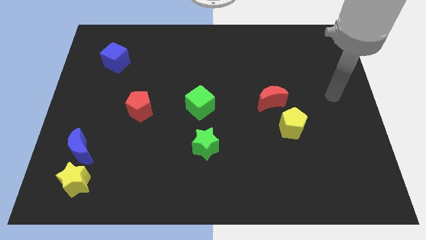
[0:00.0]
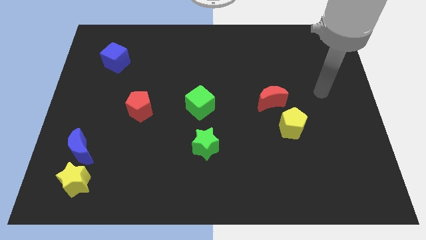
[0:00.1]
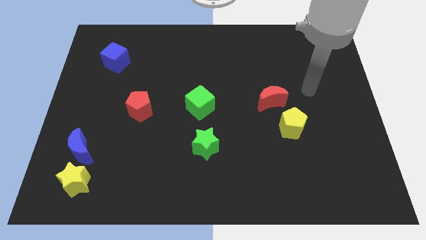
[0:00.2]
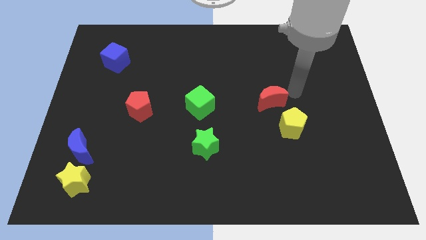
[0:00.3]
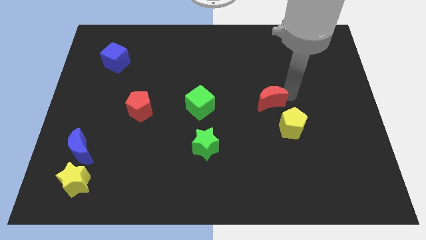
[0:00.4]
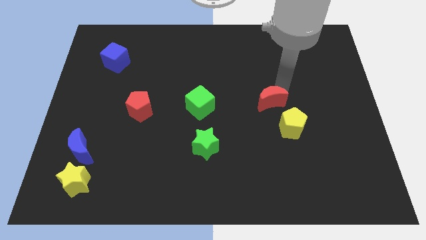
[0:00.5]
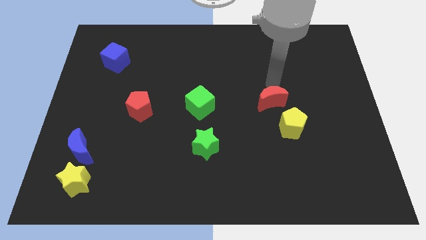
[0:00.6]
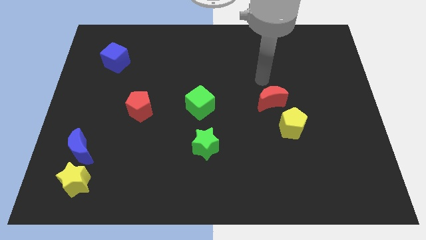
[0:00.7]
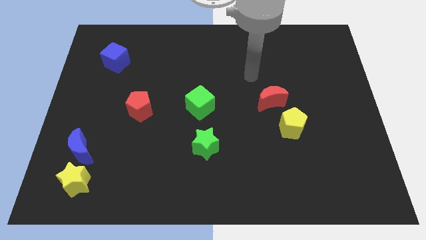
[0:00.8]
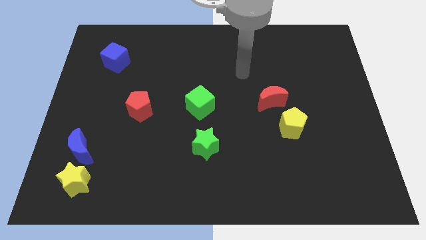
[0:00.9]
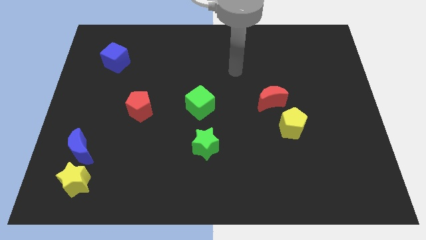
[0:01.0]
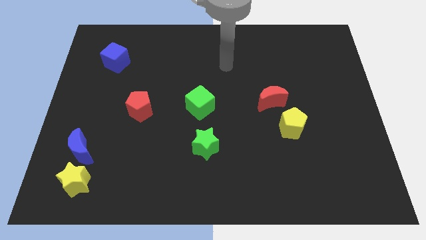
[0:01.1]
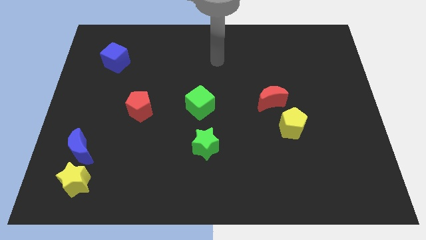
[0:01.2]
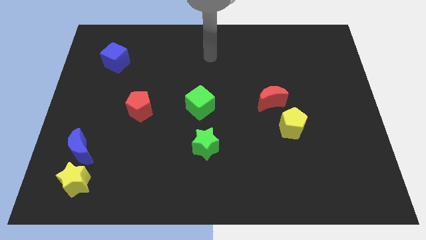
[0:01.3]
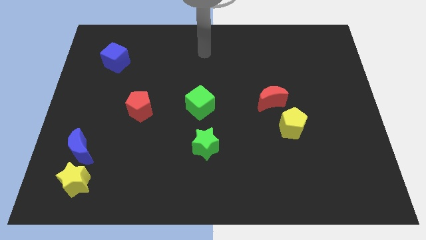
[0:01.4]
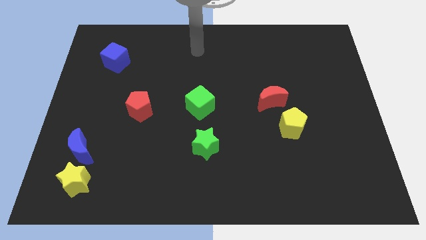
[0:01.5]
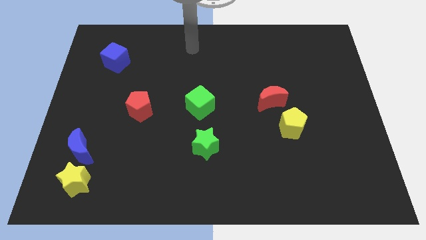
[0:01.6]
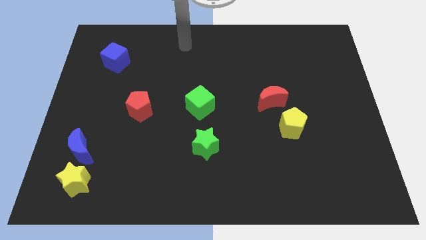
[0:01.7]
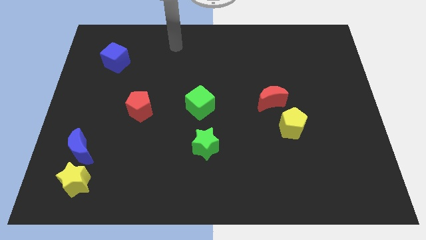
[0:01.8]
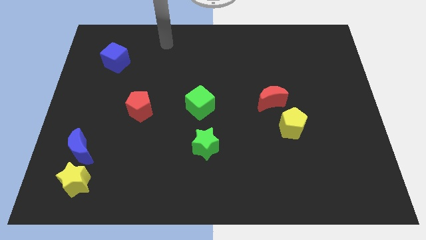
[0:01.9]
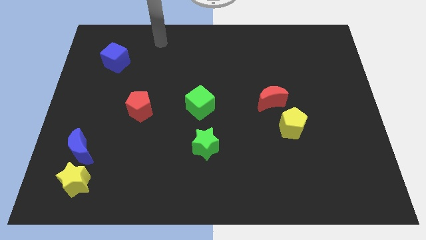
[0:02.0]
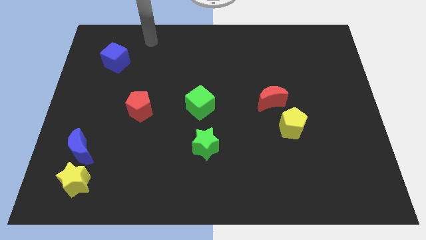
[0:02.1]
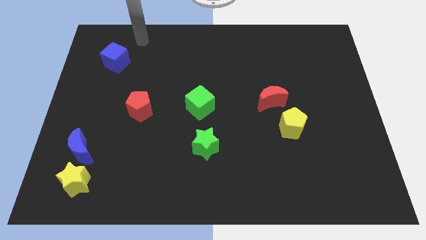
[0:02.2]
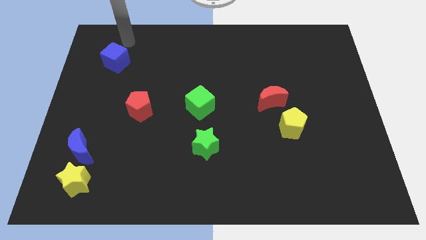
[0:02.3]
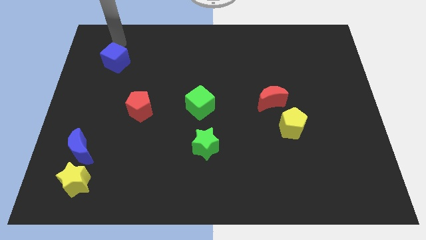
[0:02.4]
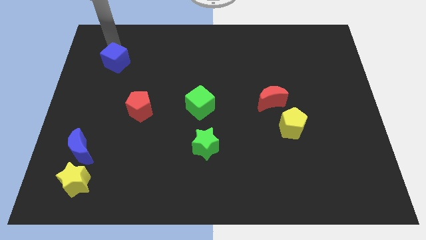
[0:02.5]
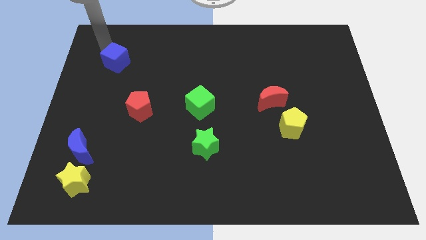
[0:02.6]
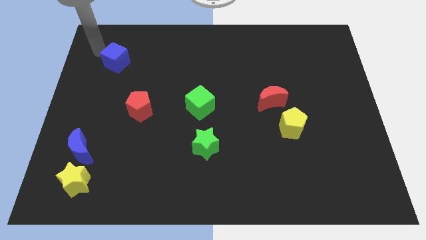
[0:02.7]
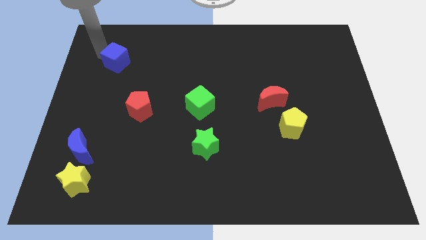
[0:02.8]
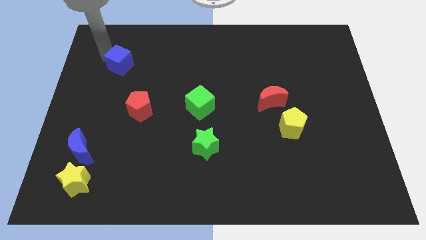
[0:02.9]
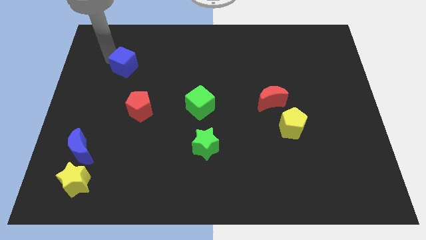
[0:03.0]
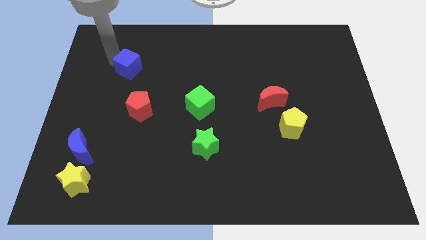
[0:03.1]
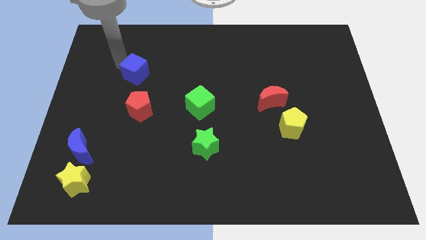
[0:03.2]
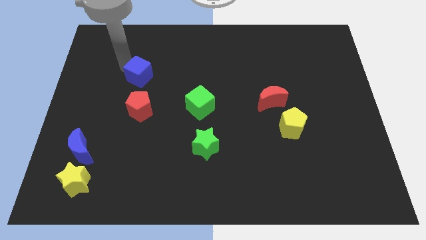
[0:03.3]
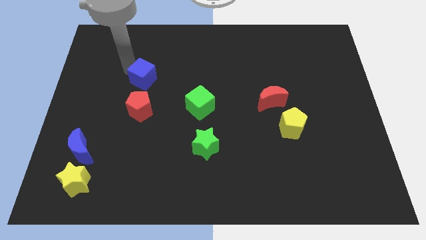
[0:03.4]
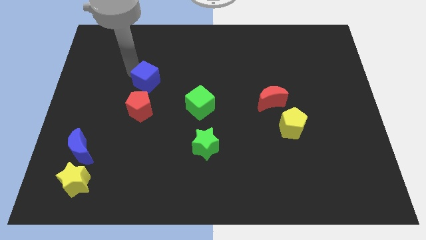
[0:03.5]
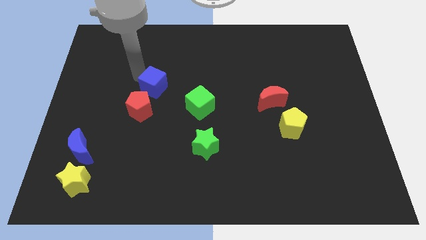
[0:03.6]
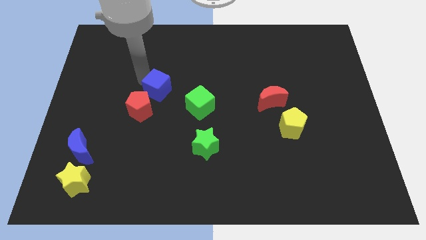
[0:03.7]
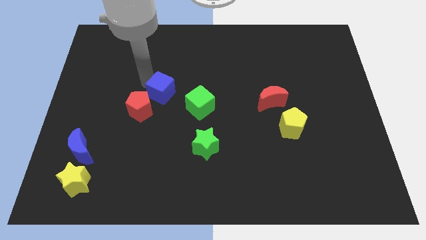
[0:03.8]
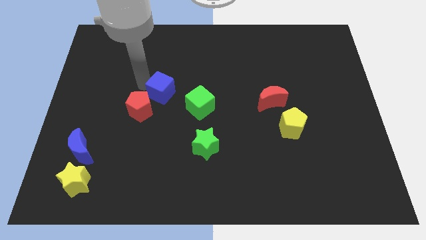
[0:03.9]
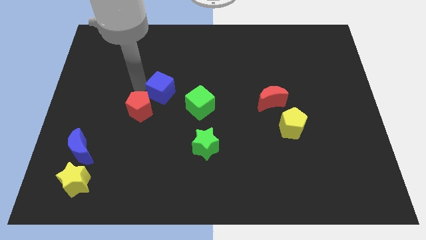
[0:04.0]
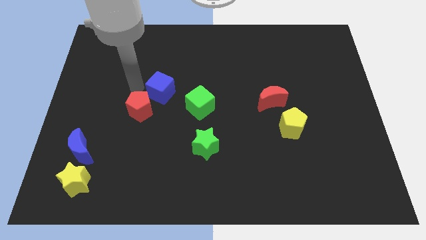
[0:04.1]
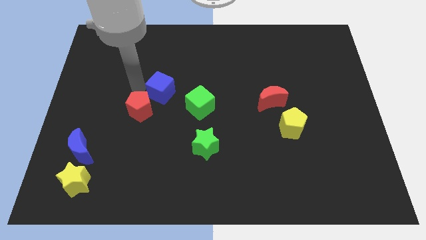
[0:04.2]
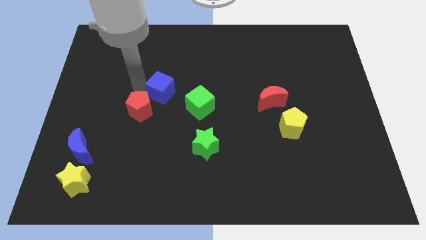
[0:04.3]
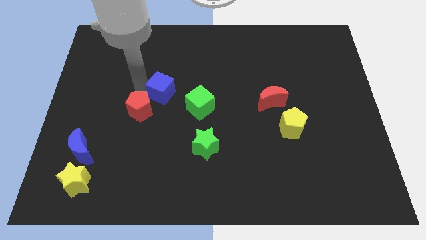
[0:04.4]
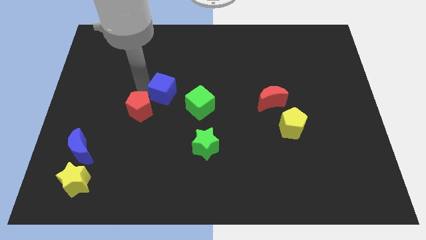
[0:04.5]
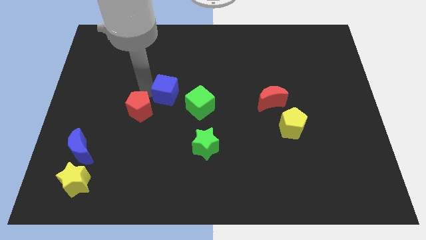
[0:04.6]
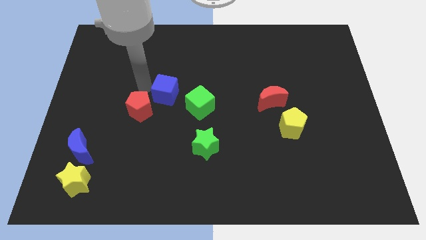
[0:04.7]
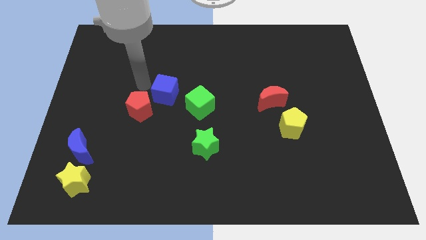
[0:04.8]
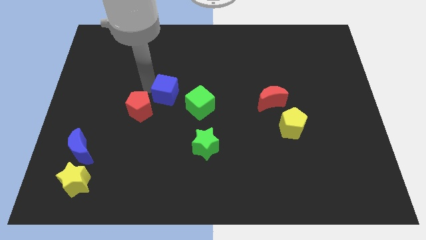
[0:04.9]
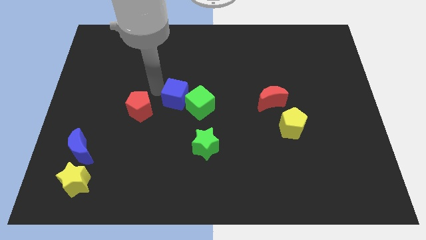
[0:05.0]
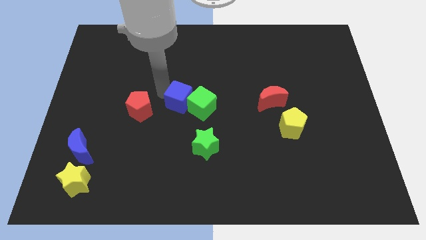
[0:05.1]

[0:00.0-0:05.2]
push the blue cube to the green cube

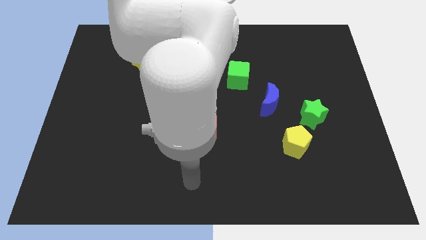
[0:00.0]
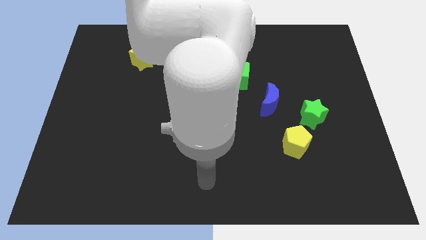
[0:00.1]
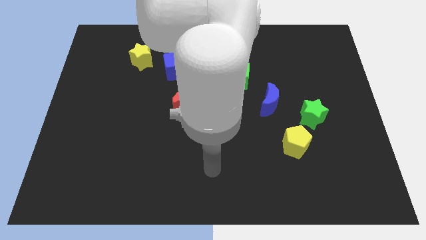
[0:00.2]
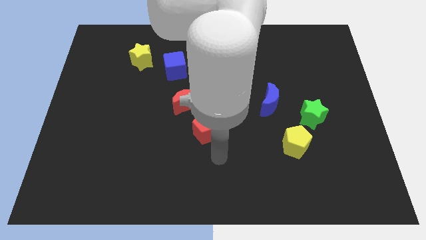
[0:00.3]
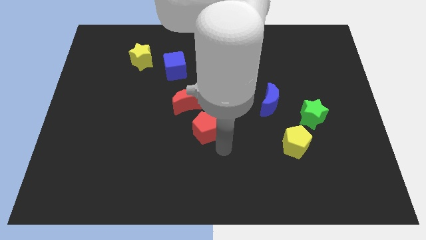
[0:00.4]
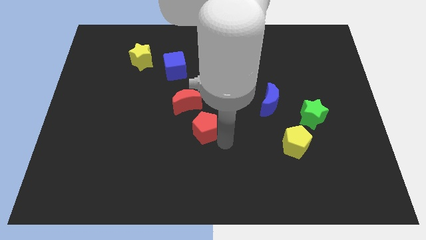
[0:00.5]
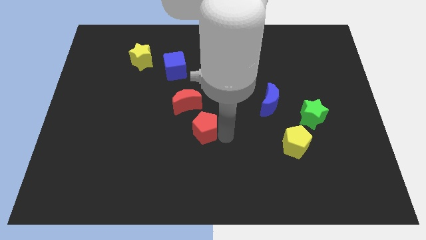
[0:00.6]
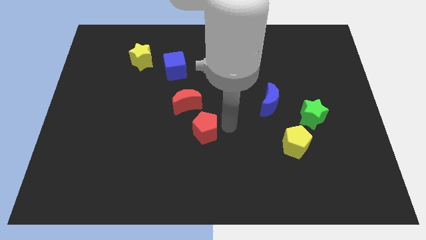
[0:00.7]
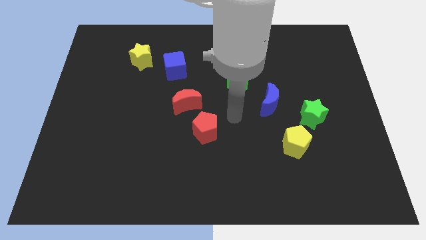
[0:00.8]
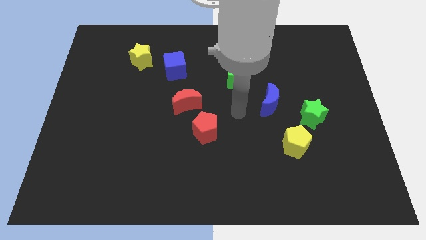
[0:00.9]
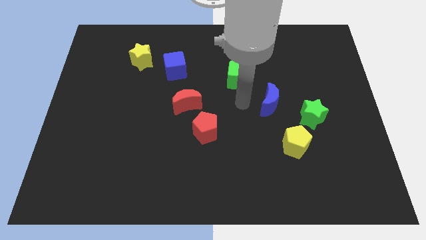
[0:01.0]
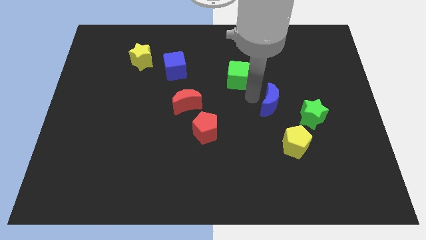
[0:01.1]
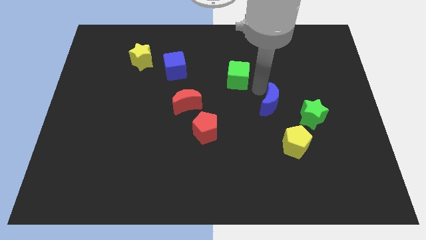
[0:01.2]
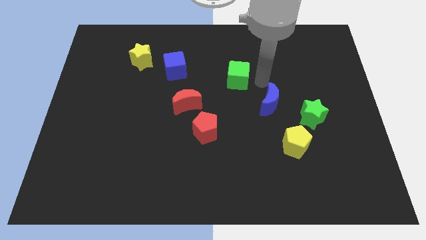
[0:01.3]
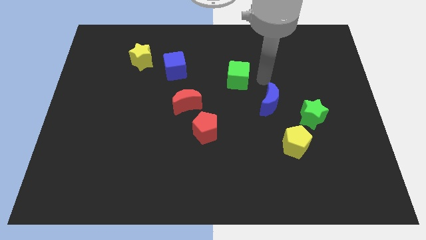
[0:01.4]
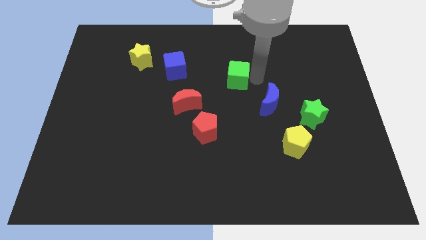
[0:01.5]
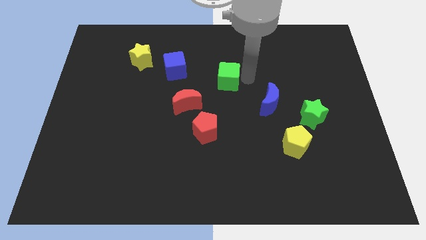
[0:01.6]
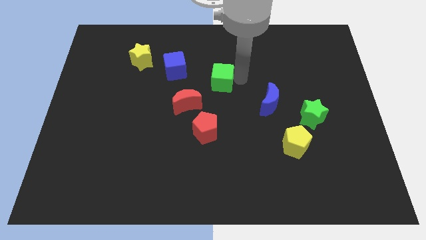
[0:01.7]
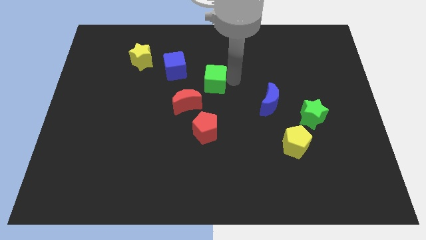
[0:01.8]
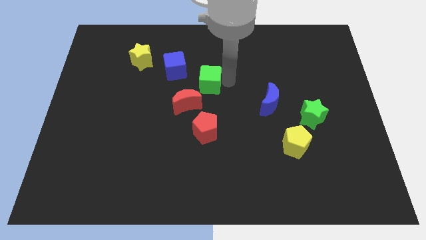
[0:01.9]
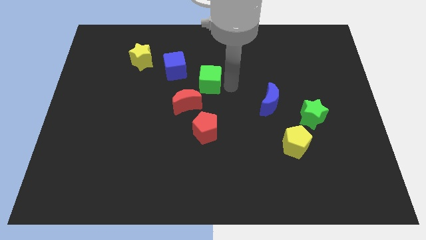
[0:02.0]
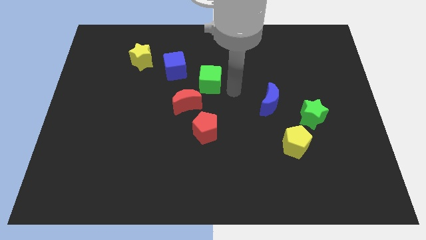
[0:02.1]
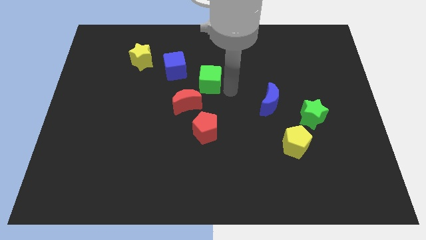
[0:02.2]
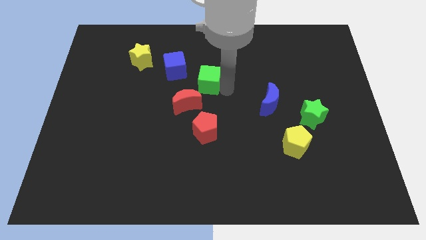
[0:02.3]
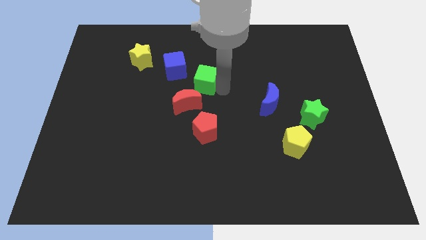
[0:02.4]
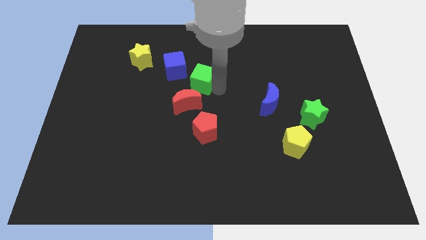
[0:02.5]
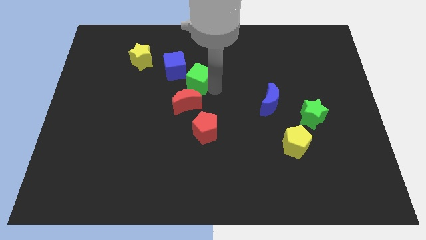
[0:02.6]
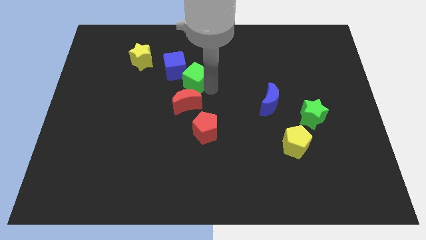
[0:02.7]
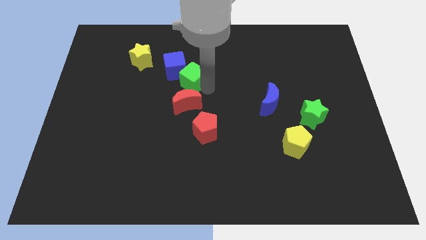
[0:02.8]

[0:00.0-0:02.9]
slide the green cube next to the blue cube

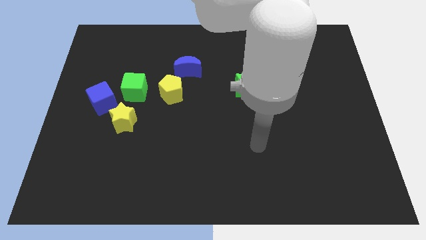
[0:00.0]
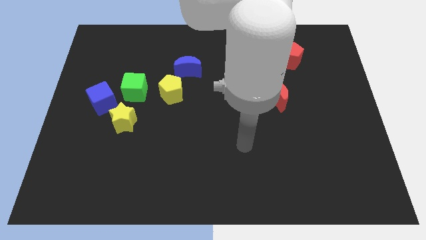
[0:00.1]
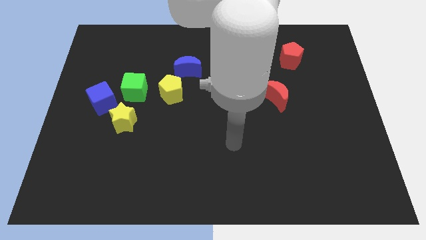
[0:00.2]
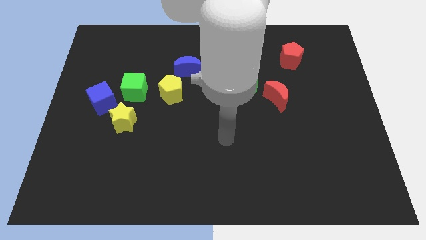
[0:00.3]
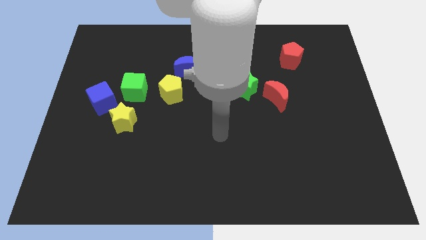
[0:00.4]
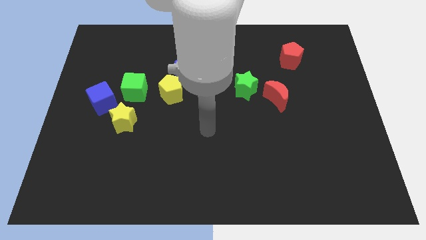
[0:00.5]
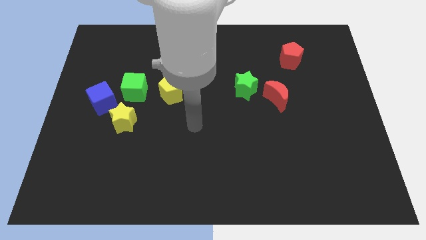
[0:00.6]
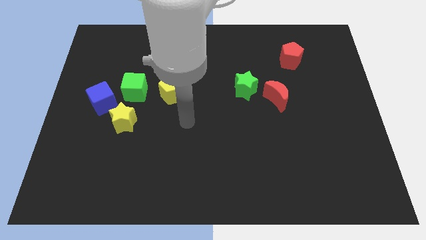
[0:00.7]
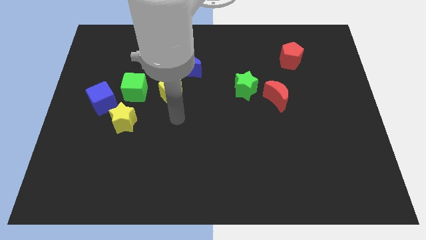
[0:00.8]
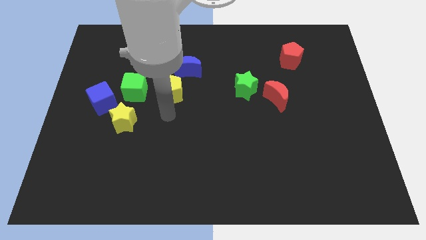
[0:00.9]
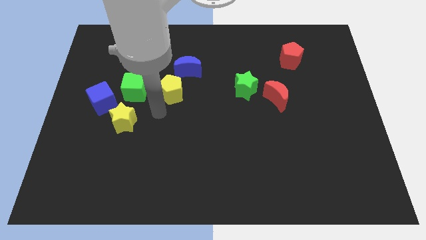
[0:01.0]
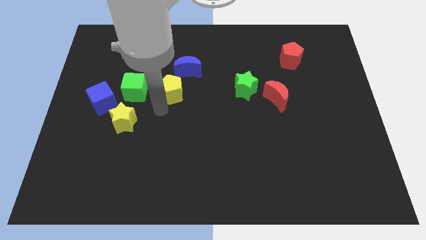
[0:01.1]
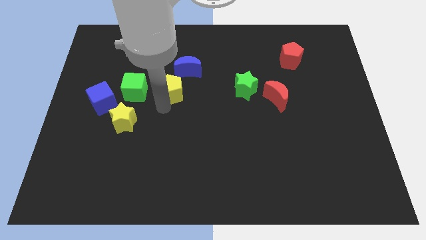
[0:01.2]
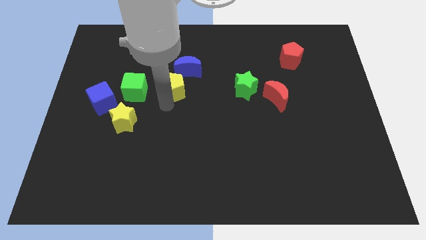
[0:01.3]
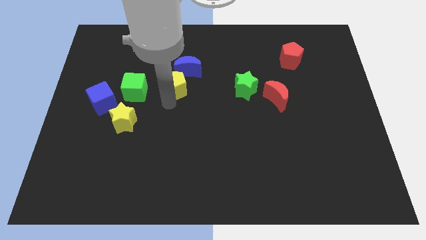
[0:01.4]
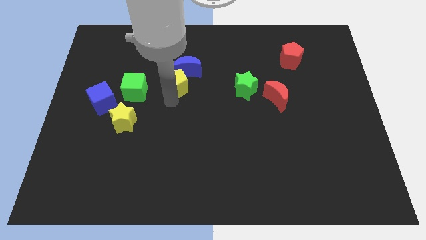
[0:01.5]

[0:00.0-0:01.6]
move the yellow pentagon next to the blue moon
